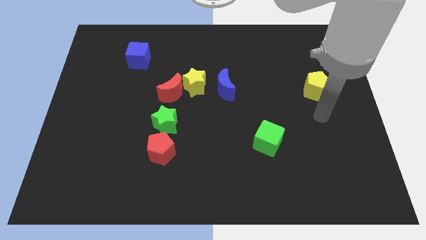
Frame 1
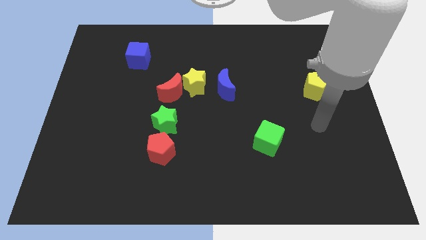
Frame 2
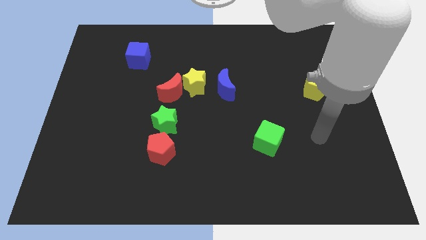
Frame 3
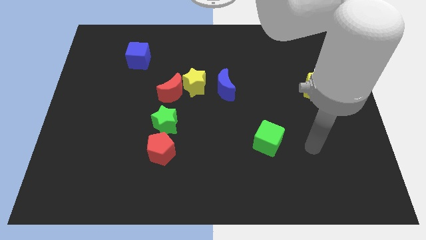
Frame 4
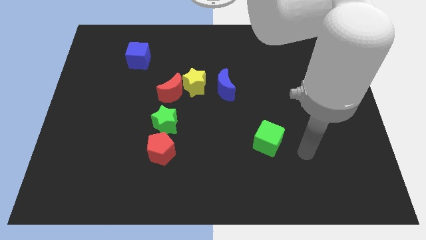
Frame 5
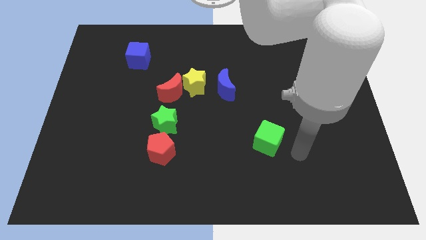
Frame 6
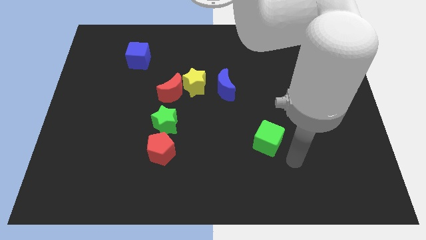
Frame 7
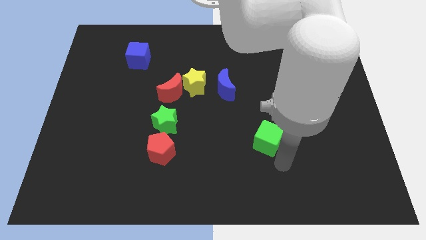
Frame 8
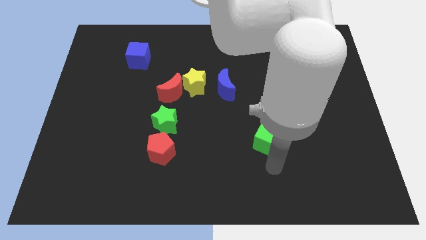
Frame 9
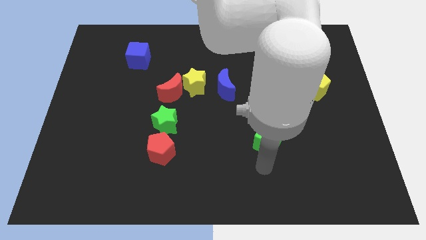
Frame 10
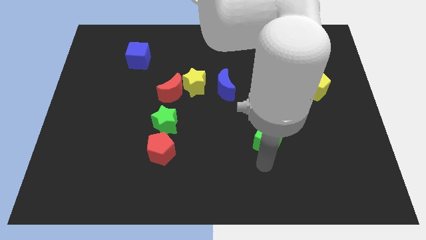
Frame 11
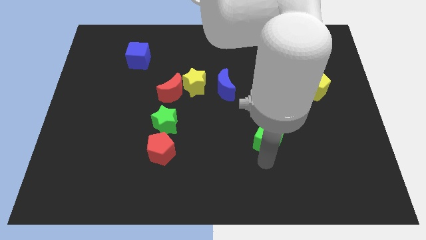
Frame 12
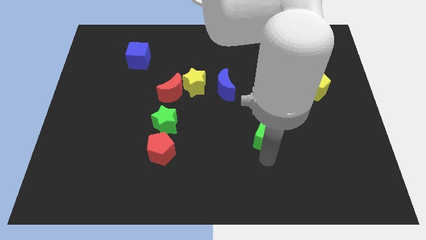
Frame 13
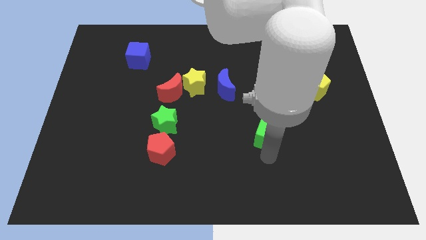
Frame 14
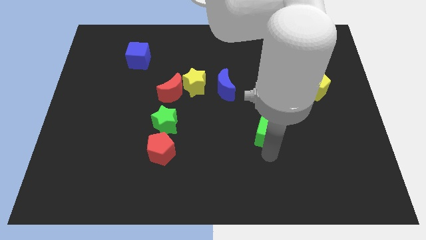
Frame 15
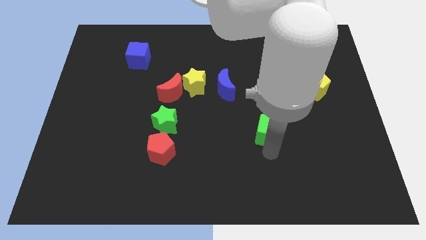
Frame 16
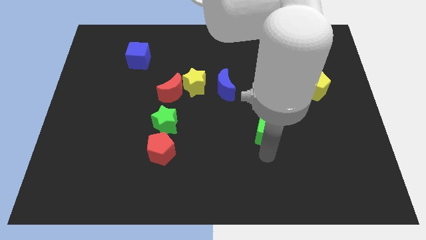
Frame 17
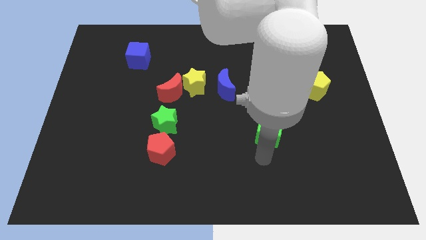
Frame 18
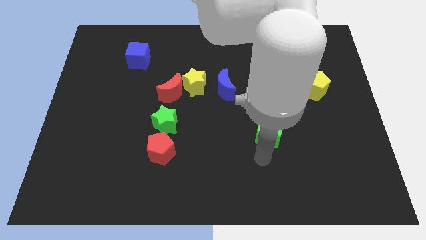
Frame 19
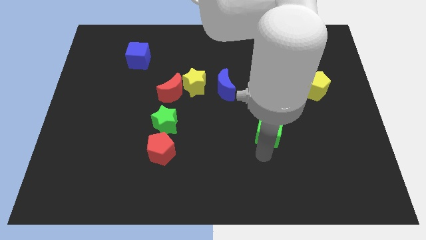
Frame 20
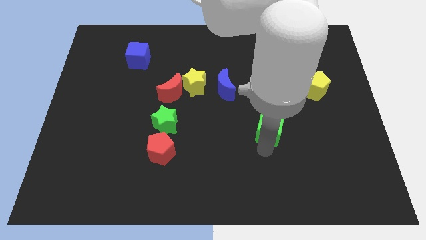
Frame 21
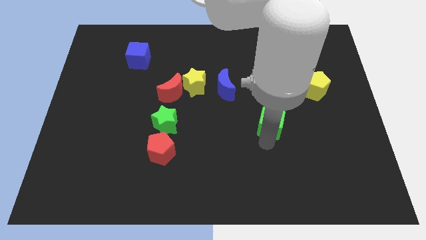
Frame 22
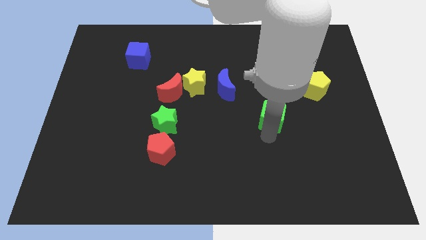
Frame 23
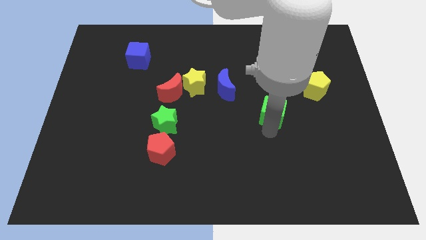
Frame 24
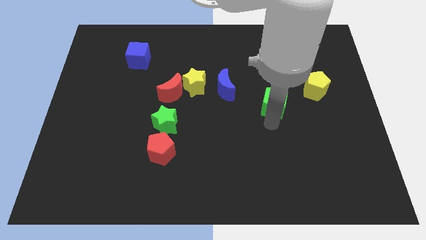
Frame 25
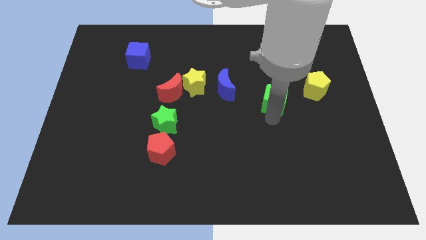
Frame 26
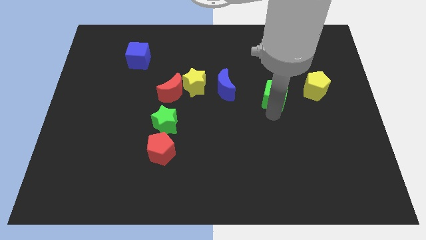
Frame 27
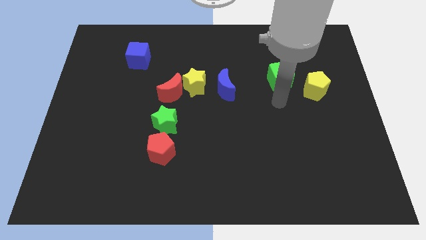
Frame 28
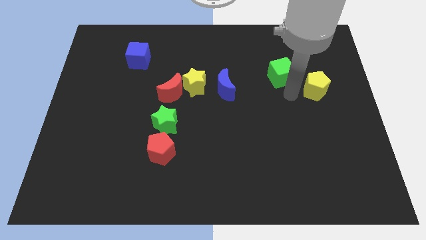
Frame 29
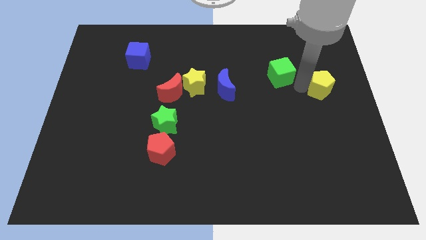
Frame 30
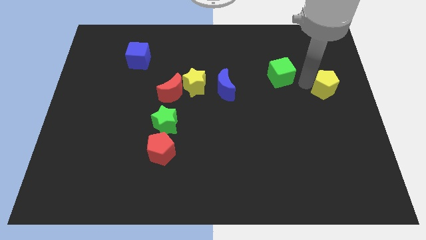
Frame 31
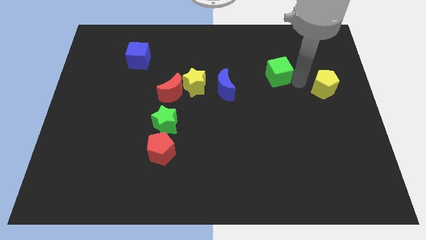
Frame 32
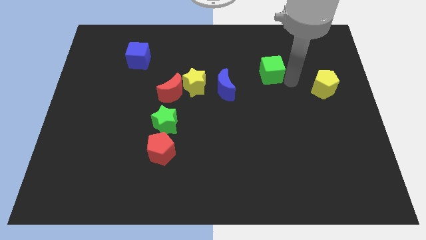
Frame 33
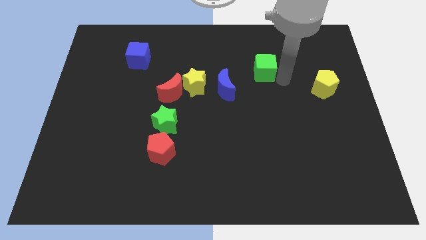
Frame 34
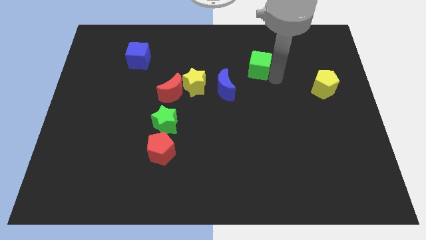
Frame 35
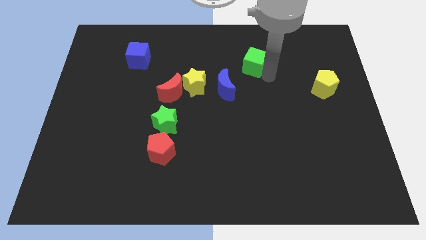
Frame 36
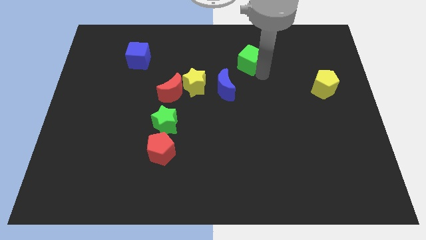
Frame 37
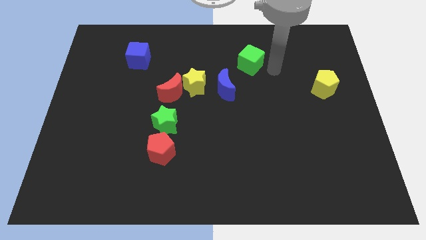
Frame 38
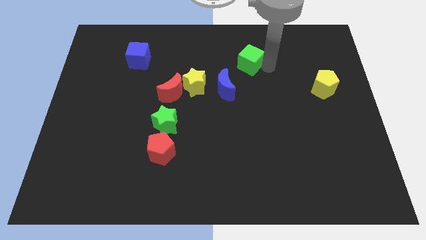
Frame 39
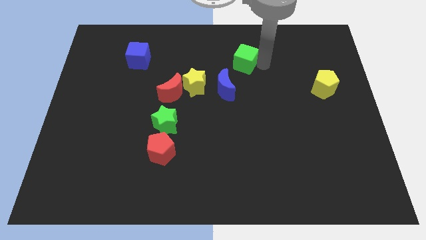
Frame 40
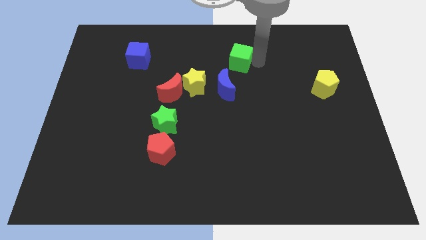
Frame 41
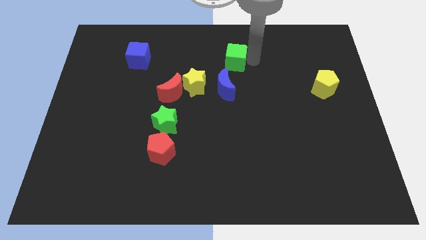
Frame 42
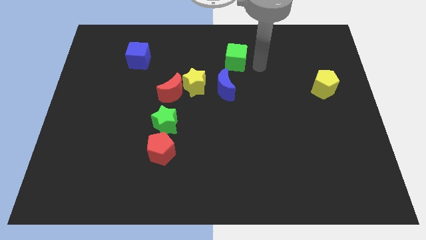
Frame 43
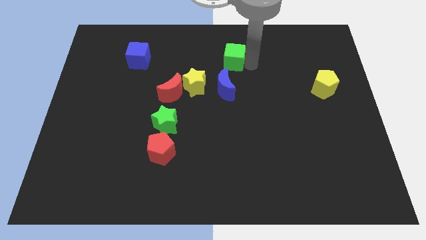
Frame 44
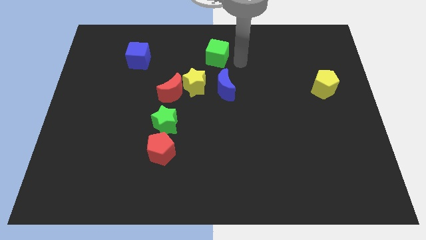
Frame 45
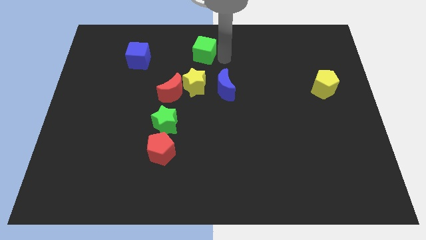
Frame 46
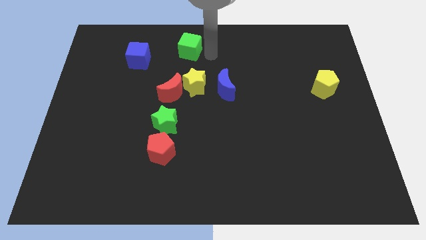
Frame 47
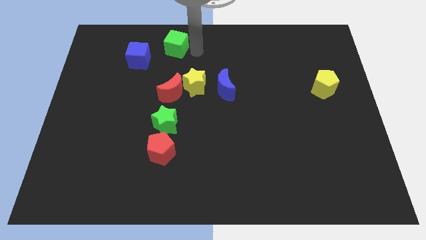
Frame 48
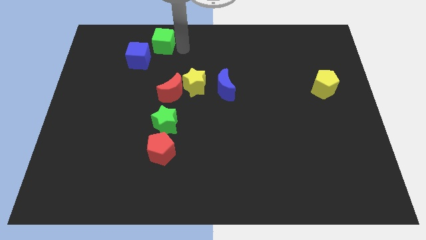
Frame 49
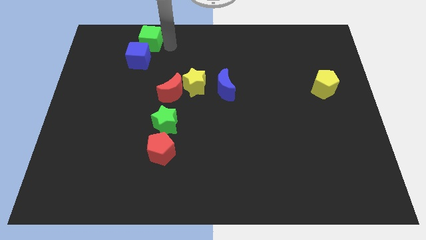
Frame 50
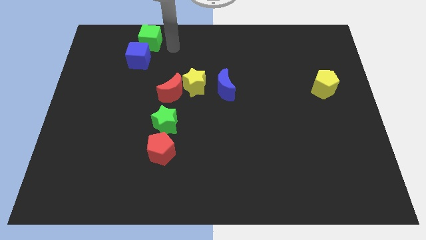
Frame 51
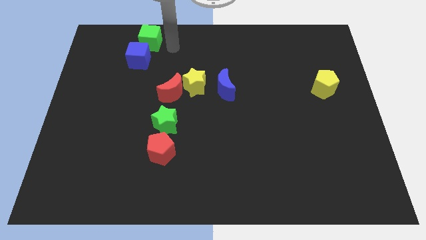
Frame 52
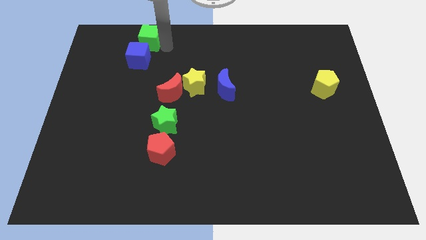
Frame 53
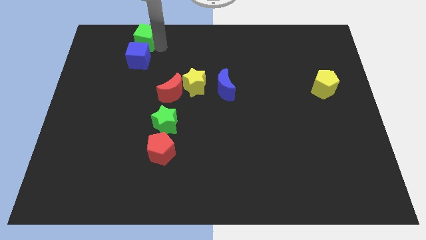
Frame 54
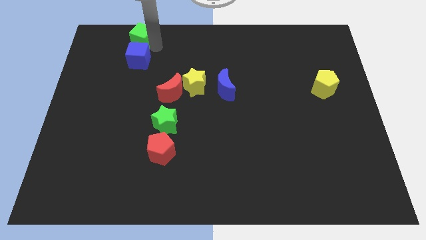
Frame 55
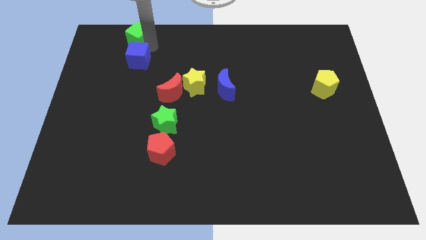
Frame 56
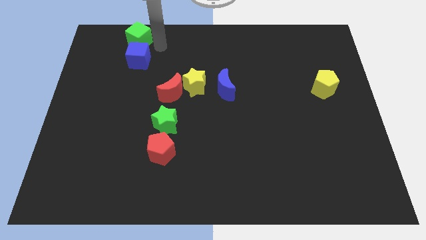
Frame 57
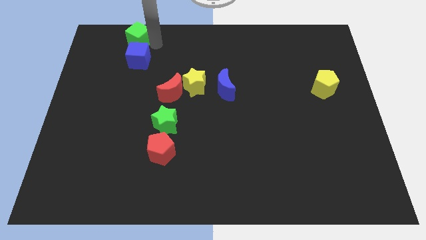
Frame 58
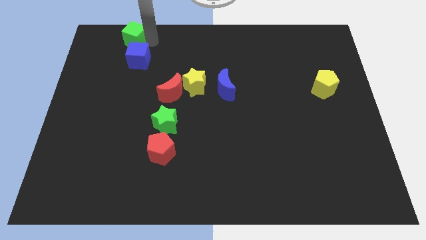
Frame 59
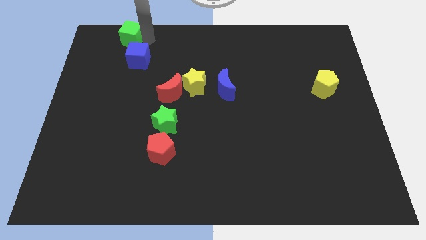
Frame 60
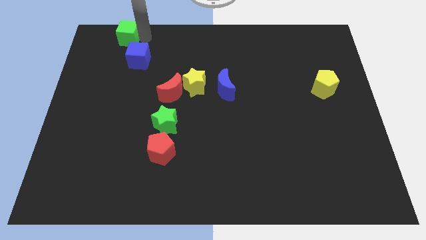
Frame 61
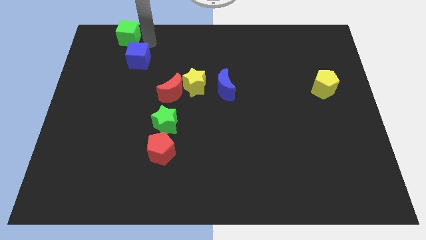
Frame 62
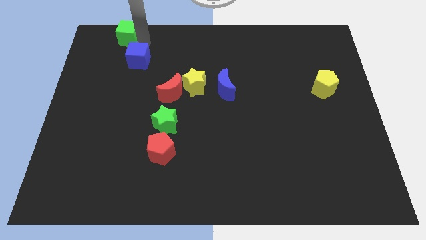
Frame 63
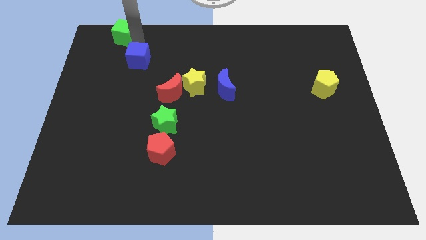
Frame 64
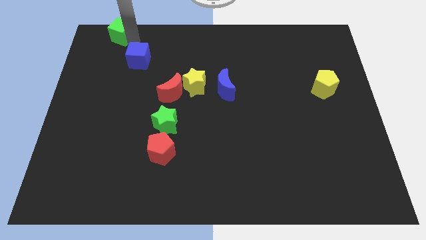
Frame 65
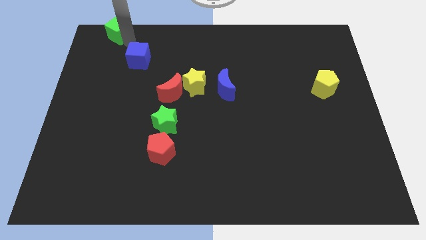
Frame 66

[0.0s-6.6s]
put the green cube to the top left
